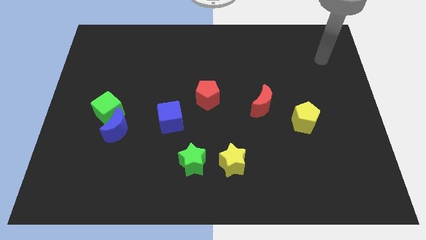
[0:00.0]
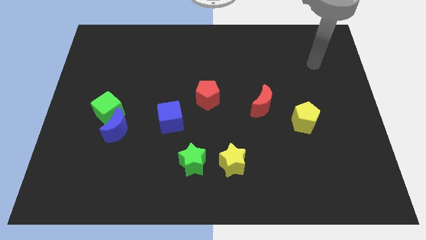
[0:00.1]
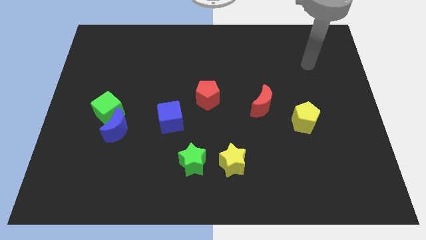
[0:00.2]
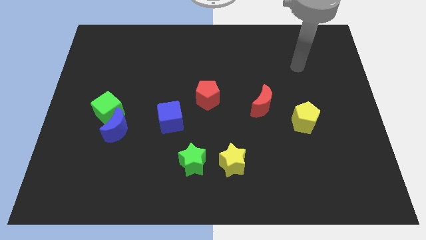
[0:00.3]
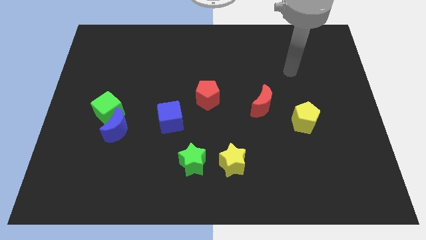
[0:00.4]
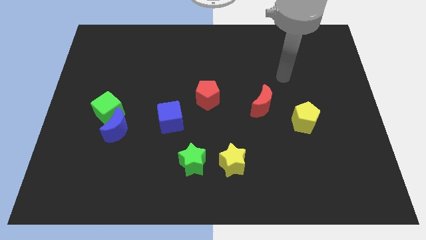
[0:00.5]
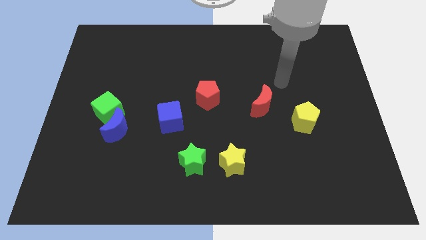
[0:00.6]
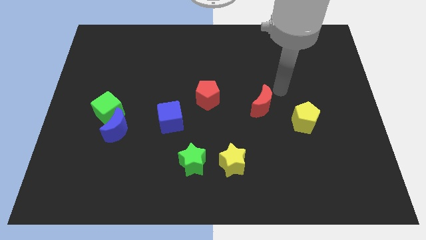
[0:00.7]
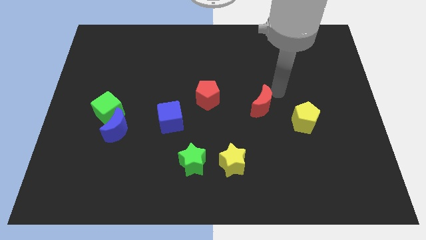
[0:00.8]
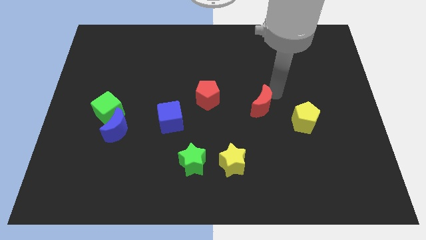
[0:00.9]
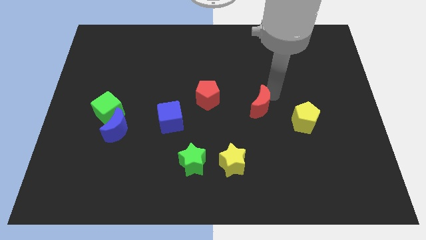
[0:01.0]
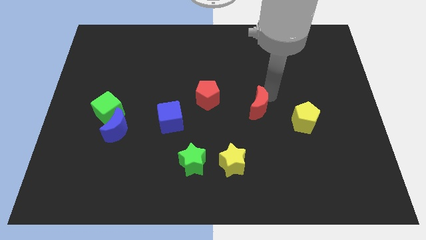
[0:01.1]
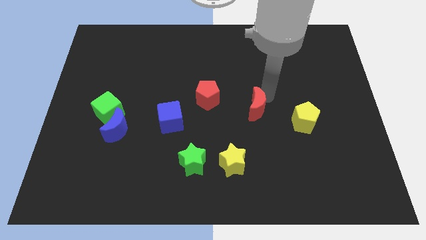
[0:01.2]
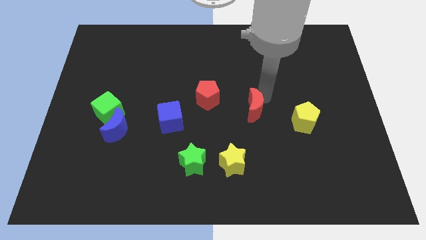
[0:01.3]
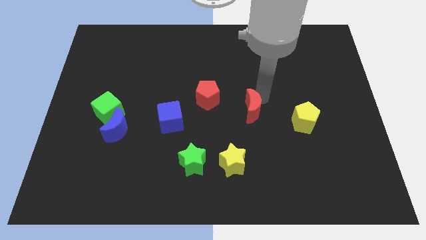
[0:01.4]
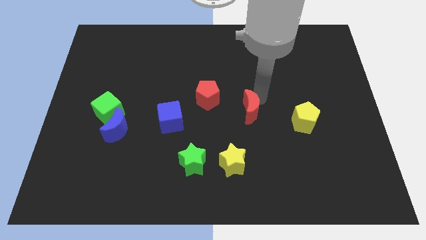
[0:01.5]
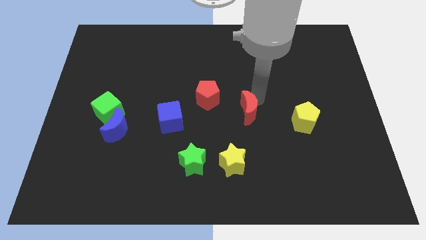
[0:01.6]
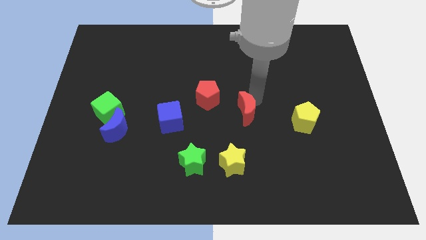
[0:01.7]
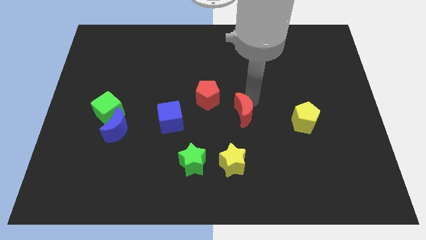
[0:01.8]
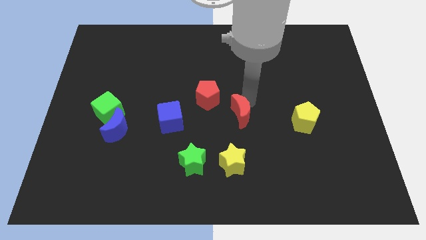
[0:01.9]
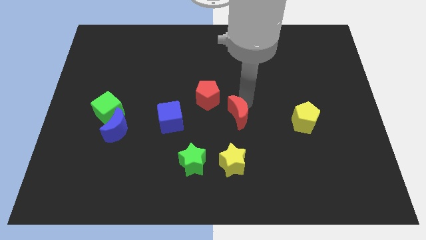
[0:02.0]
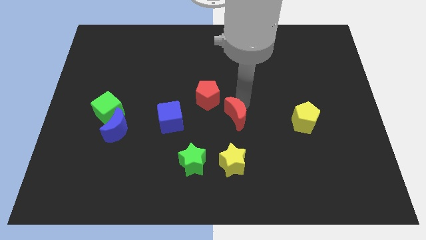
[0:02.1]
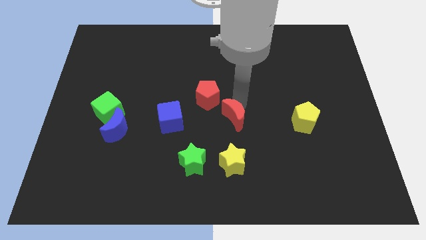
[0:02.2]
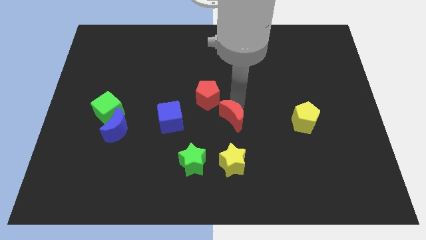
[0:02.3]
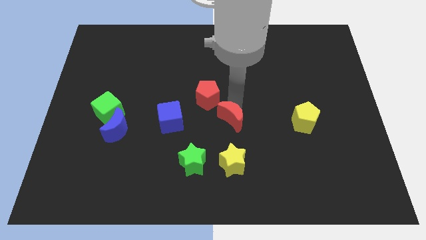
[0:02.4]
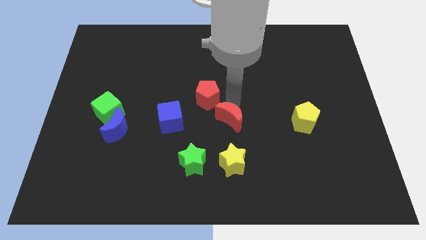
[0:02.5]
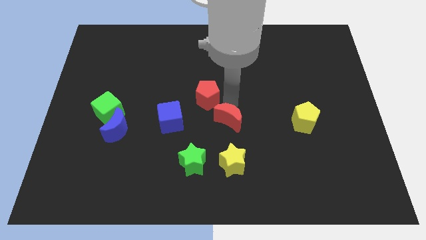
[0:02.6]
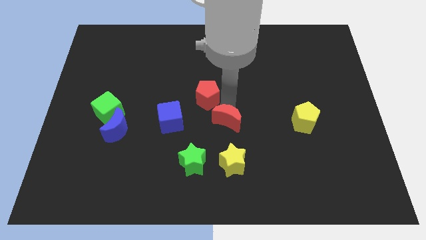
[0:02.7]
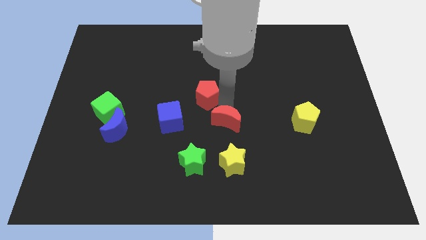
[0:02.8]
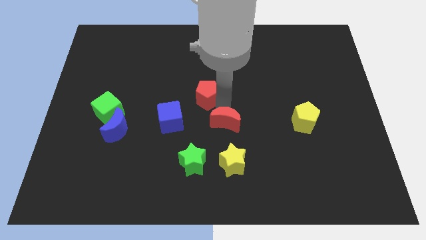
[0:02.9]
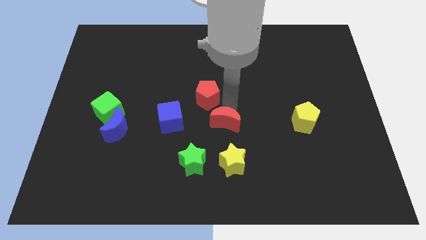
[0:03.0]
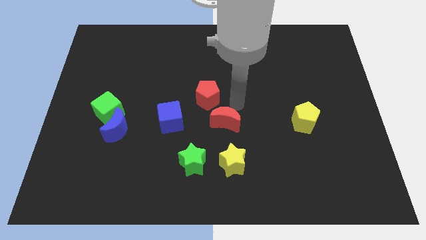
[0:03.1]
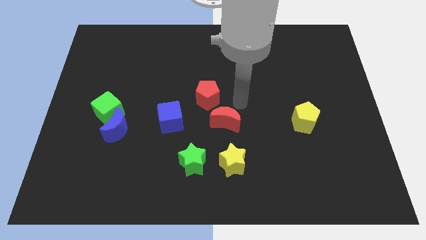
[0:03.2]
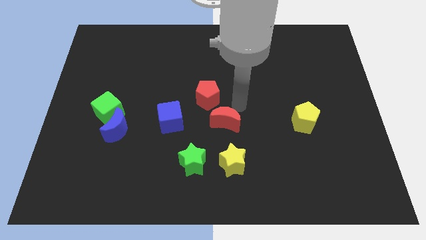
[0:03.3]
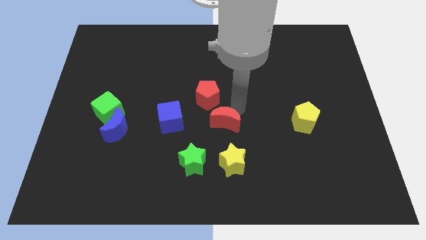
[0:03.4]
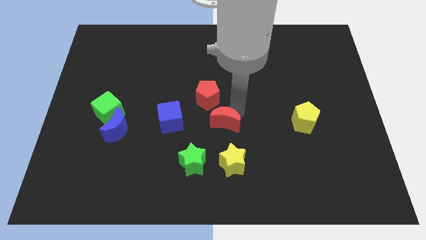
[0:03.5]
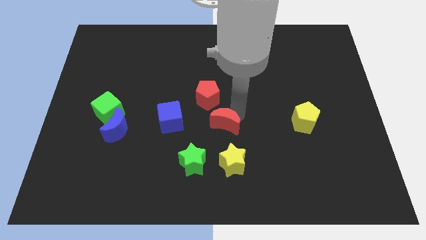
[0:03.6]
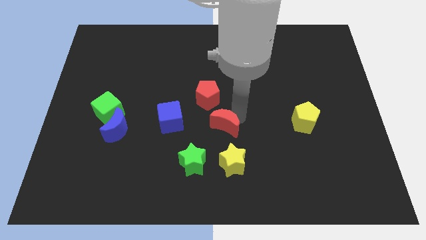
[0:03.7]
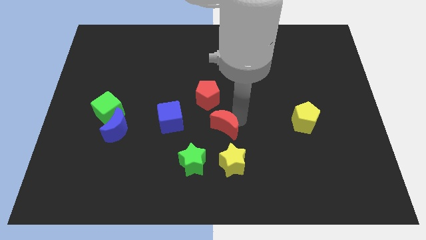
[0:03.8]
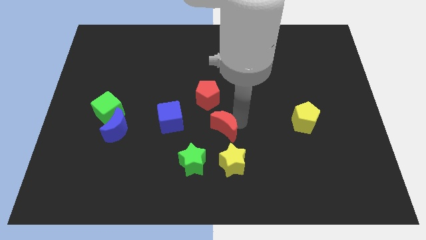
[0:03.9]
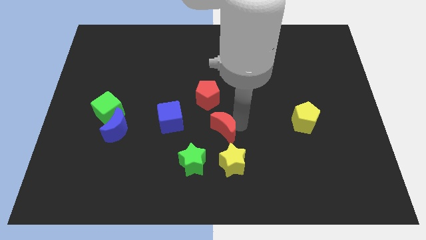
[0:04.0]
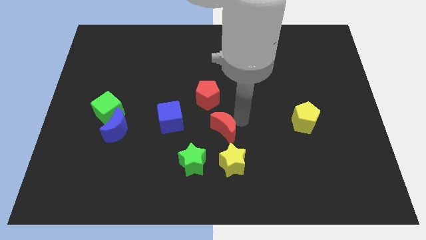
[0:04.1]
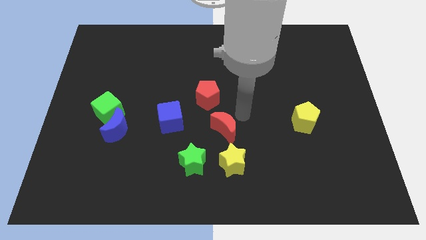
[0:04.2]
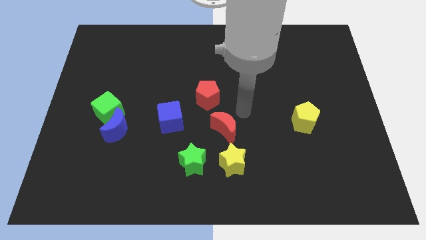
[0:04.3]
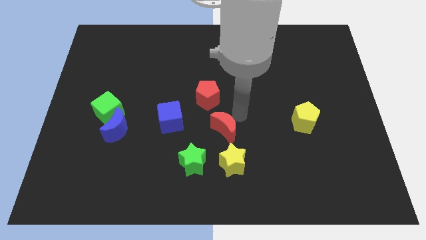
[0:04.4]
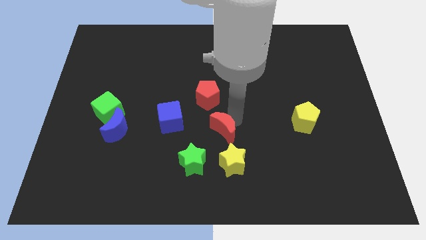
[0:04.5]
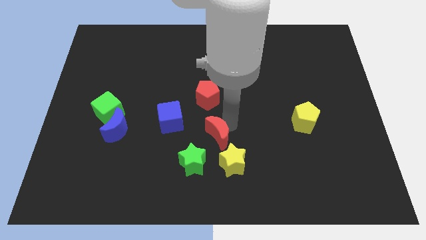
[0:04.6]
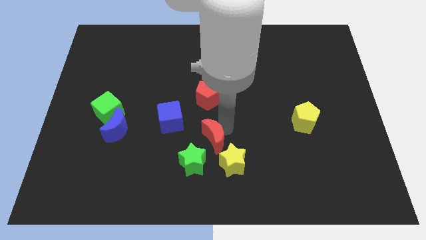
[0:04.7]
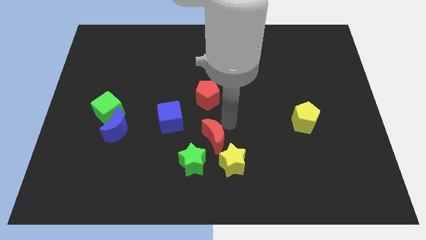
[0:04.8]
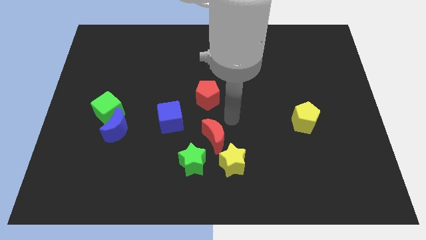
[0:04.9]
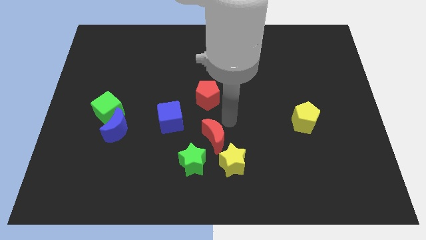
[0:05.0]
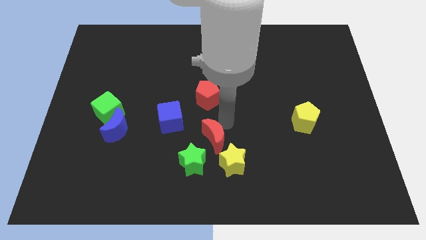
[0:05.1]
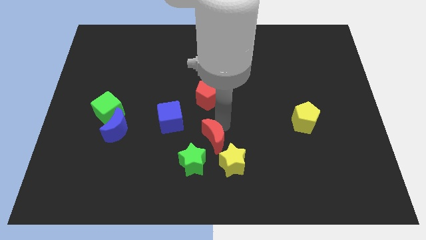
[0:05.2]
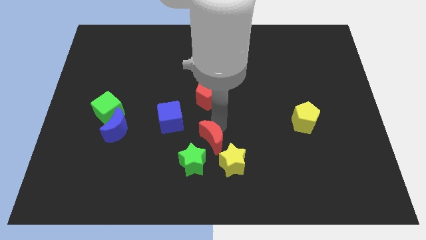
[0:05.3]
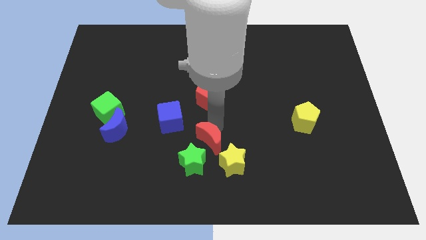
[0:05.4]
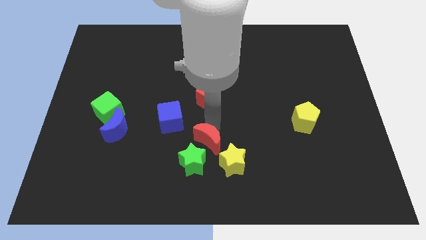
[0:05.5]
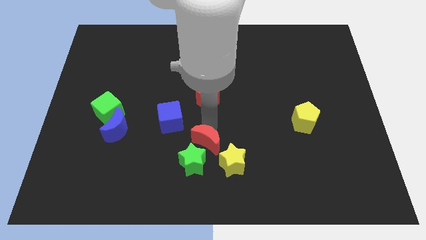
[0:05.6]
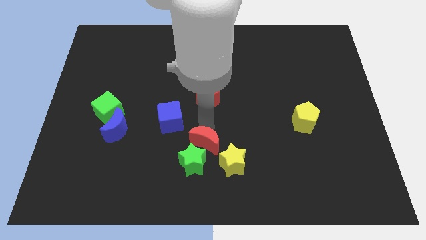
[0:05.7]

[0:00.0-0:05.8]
push the red moon towards the green star

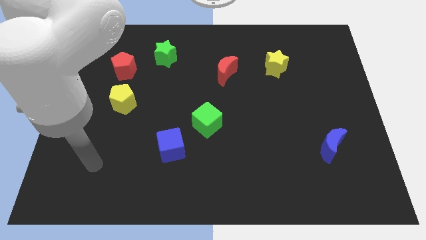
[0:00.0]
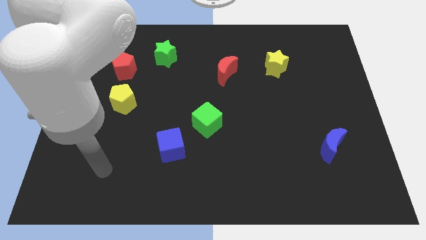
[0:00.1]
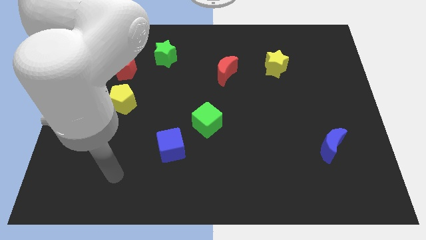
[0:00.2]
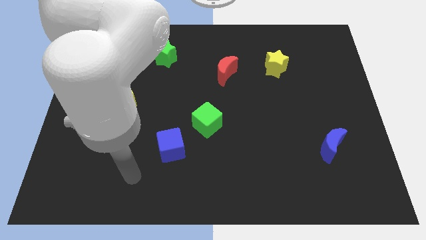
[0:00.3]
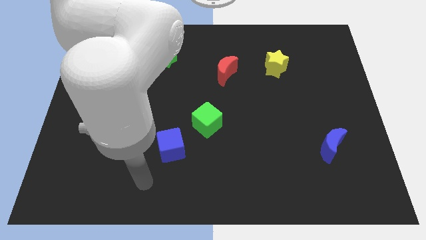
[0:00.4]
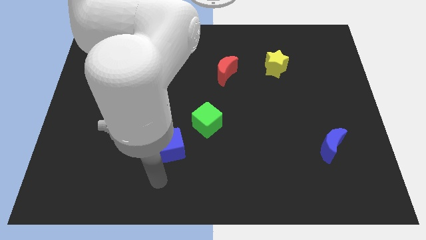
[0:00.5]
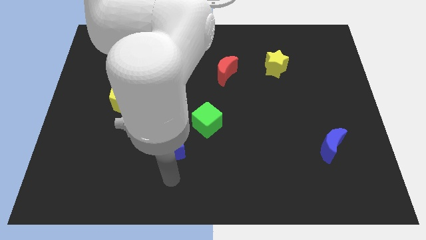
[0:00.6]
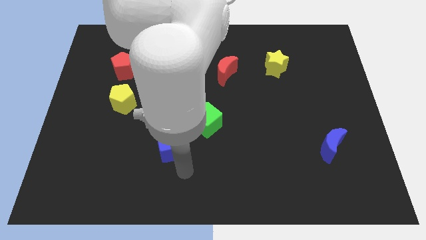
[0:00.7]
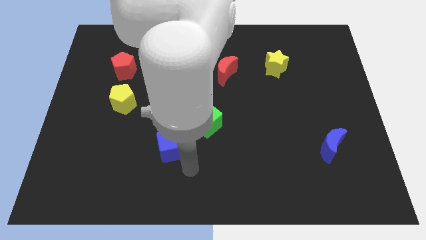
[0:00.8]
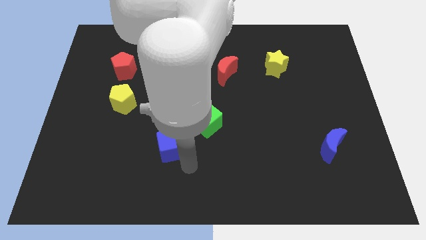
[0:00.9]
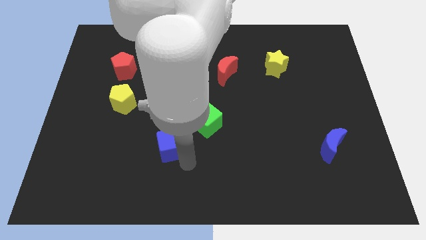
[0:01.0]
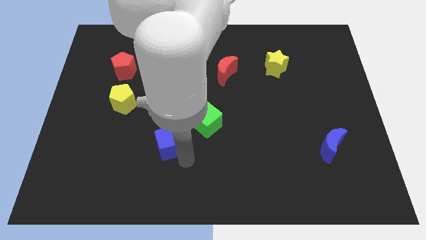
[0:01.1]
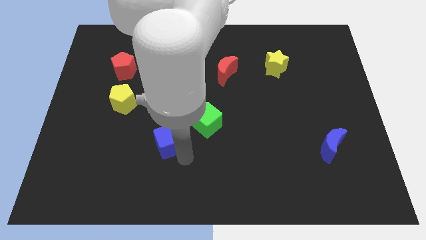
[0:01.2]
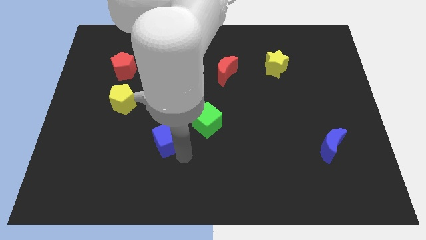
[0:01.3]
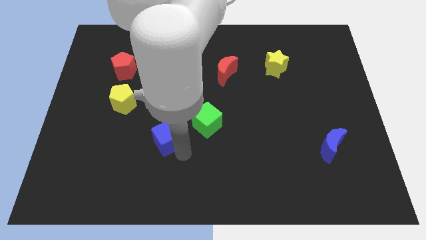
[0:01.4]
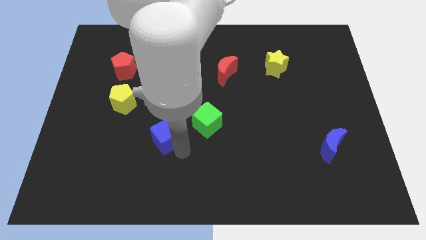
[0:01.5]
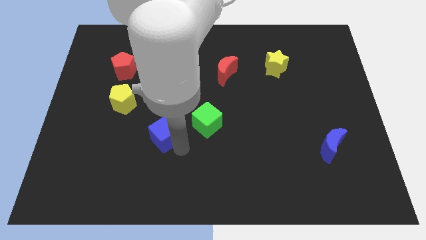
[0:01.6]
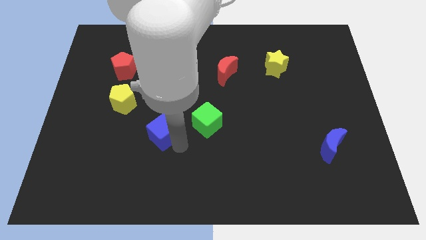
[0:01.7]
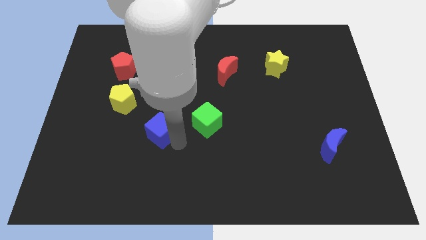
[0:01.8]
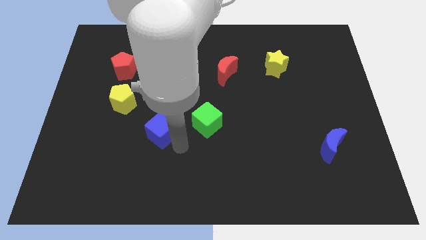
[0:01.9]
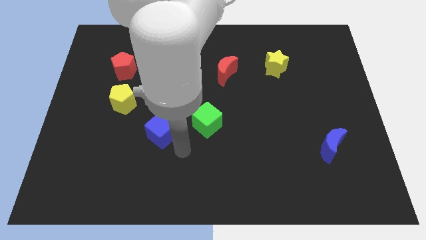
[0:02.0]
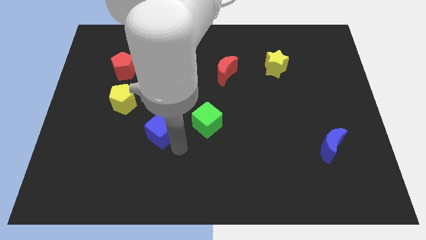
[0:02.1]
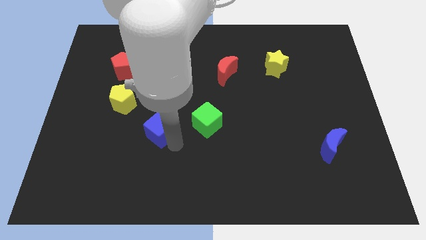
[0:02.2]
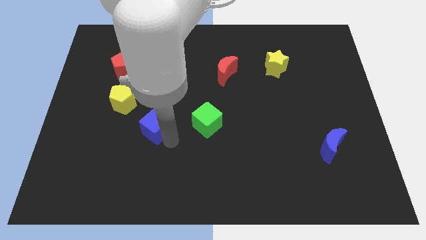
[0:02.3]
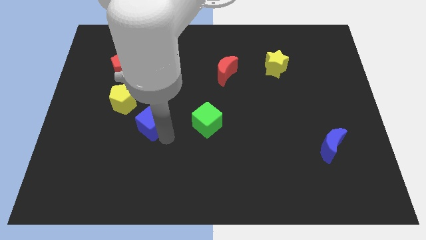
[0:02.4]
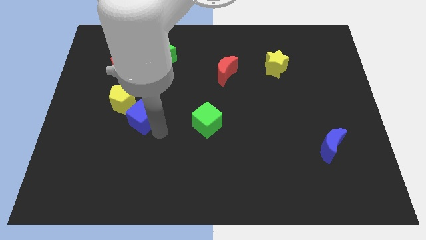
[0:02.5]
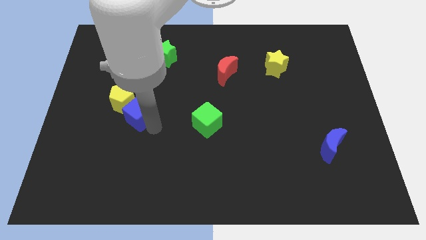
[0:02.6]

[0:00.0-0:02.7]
move the blue cube to the yellow pentagon
